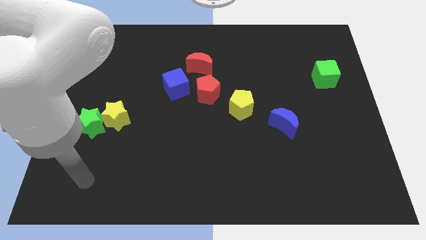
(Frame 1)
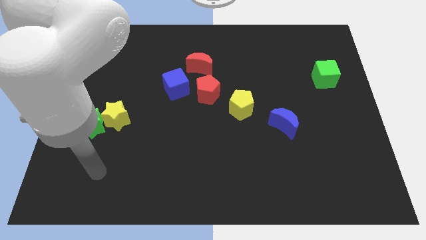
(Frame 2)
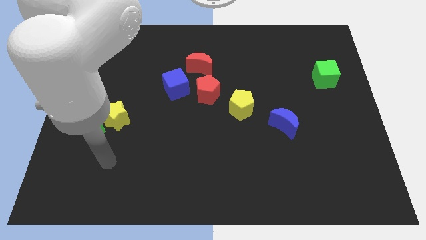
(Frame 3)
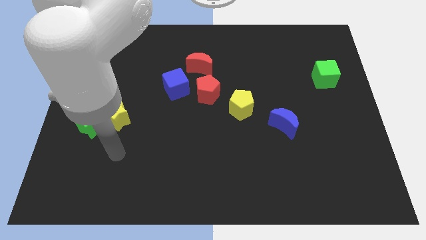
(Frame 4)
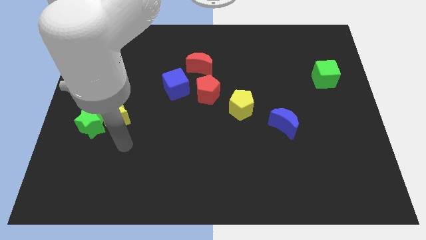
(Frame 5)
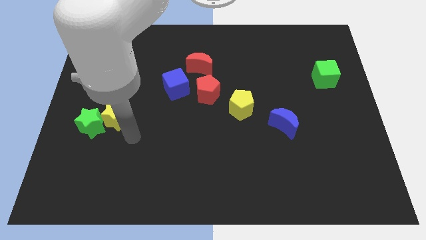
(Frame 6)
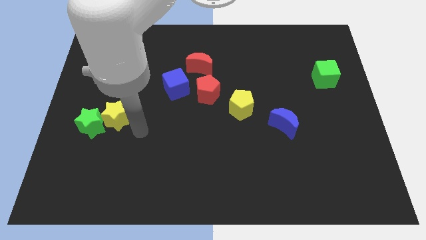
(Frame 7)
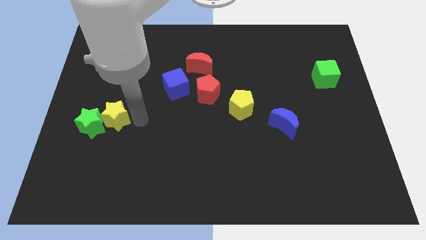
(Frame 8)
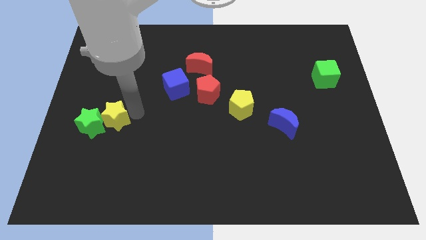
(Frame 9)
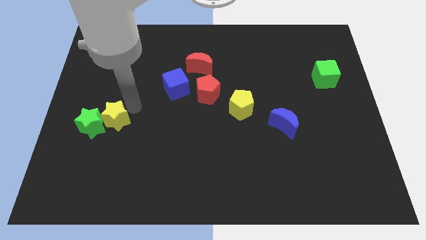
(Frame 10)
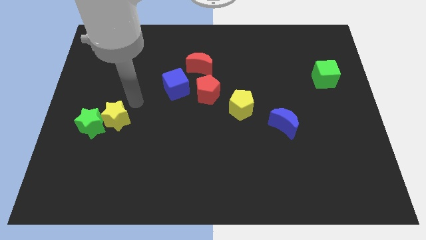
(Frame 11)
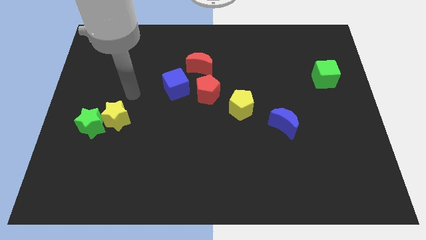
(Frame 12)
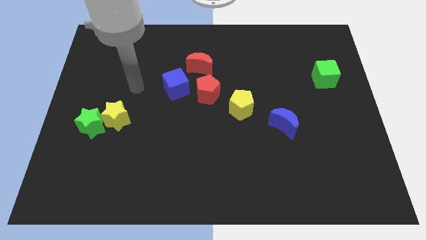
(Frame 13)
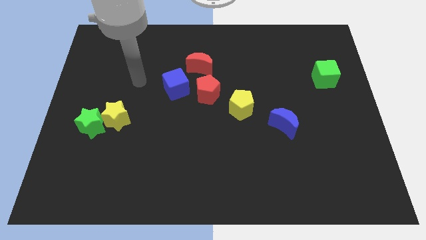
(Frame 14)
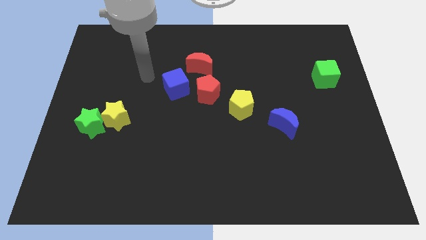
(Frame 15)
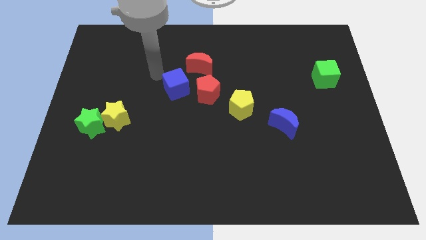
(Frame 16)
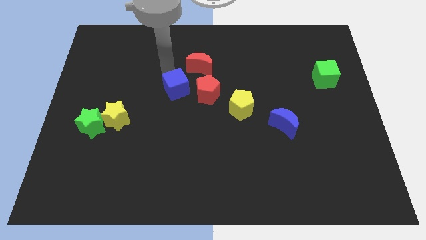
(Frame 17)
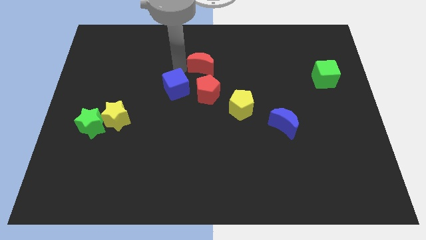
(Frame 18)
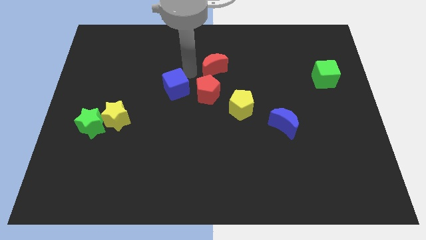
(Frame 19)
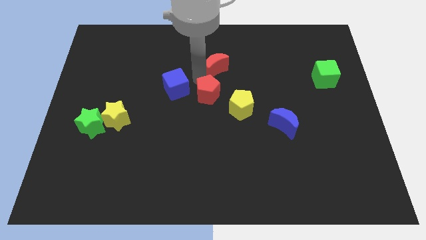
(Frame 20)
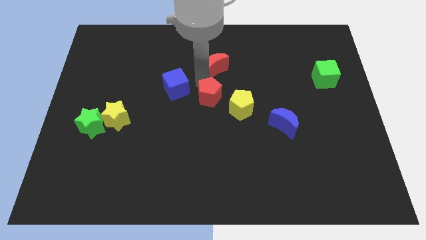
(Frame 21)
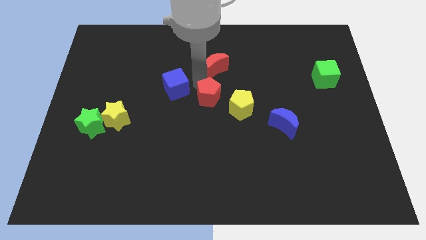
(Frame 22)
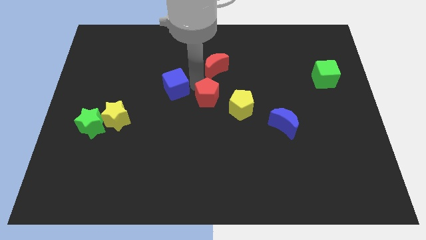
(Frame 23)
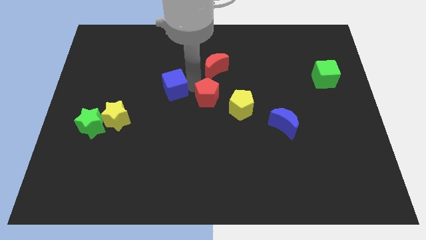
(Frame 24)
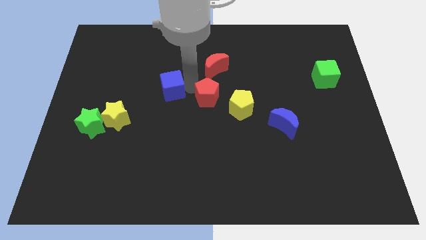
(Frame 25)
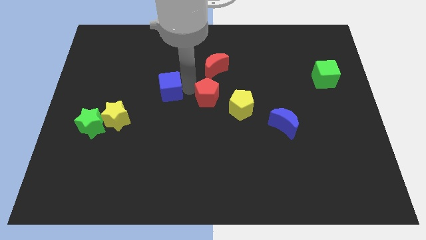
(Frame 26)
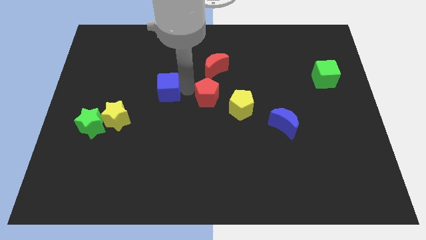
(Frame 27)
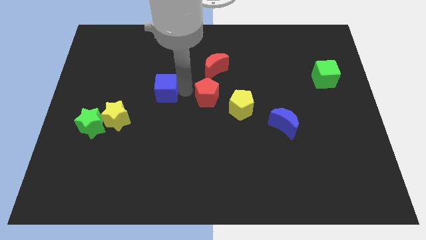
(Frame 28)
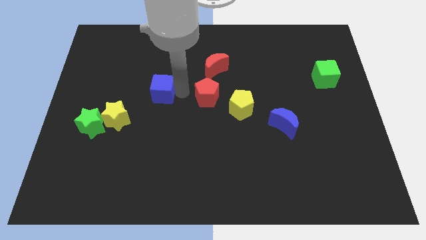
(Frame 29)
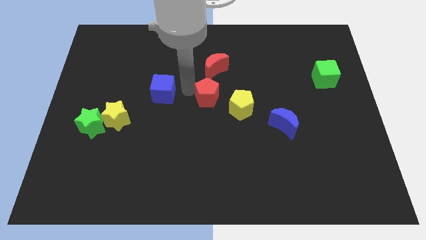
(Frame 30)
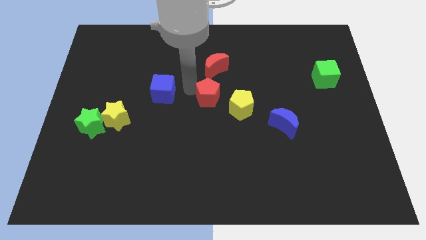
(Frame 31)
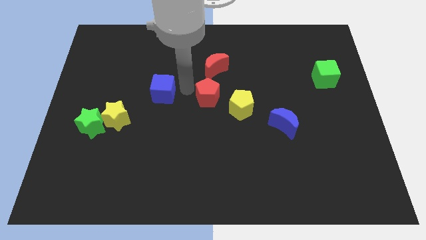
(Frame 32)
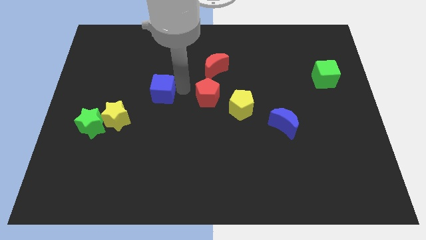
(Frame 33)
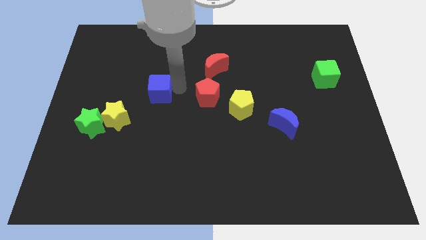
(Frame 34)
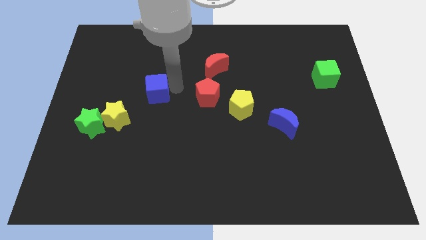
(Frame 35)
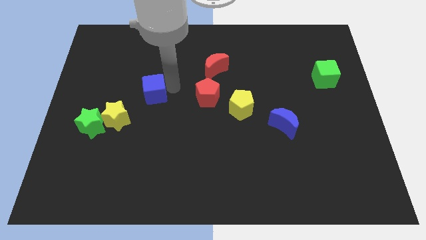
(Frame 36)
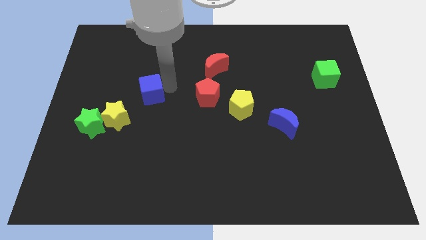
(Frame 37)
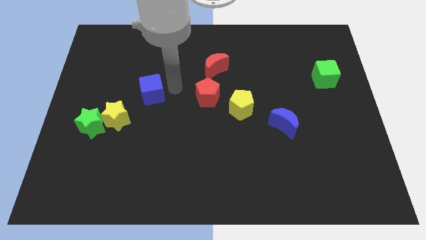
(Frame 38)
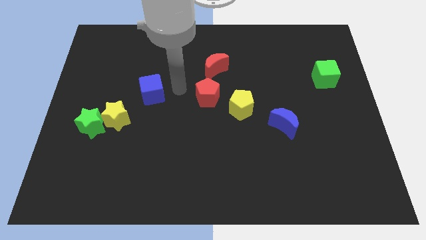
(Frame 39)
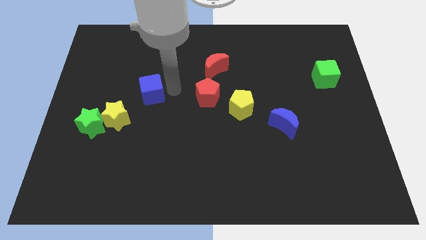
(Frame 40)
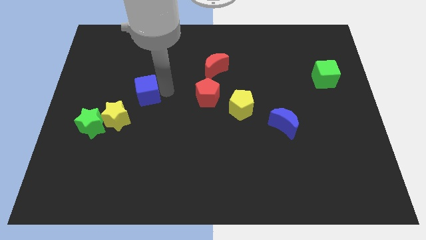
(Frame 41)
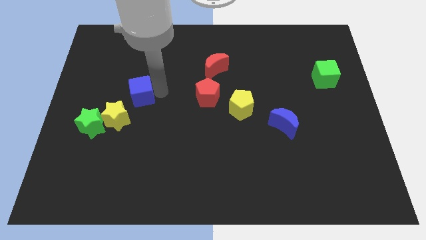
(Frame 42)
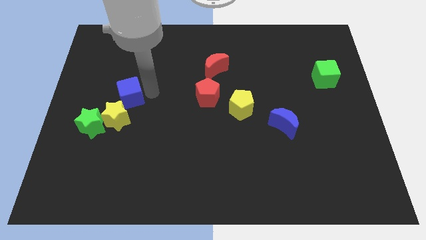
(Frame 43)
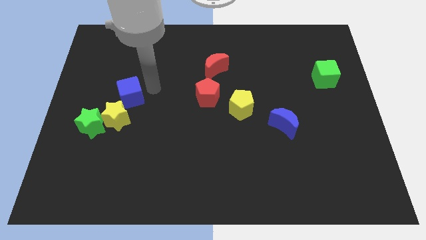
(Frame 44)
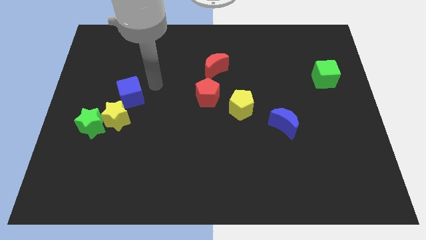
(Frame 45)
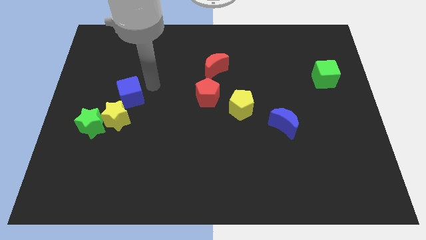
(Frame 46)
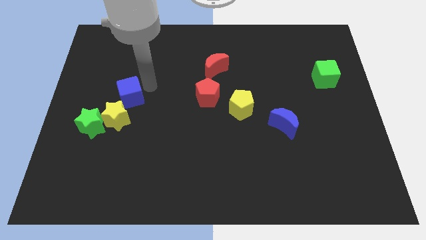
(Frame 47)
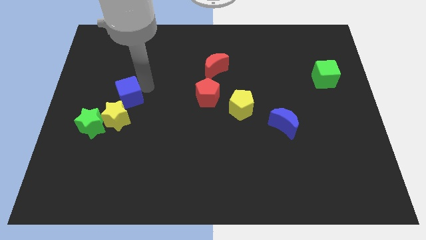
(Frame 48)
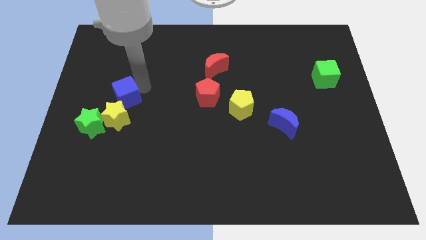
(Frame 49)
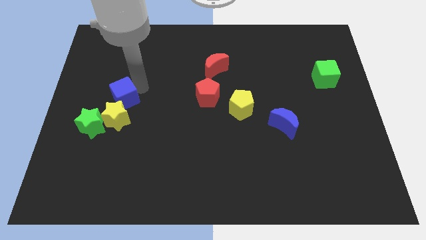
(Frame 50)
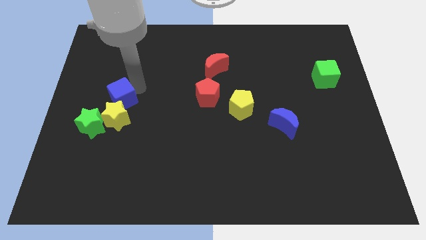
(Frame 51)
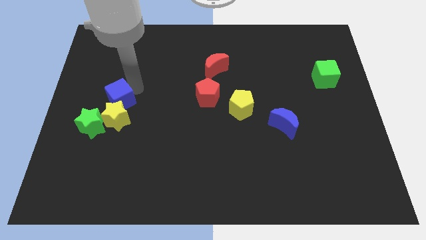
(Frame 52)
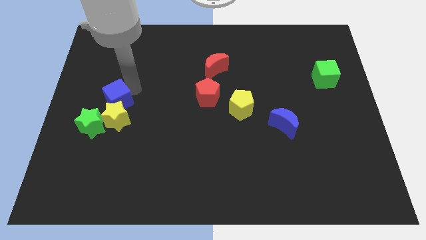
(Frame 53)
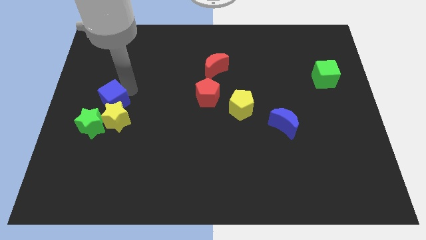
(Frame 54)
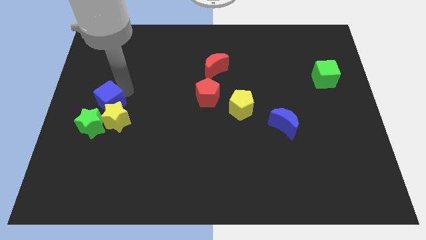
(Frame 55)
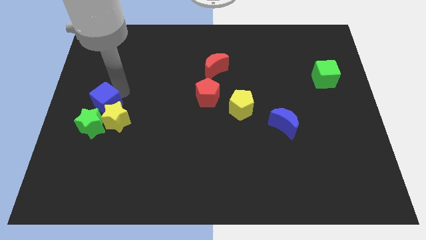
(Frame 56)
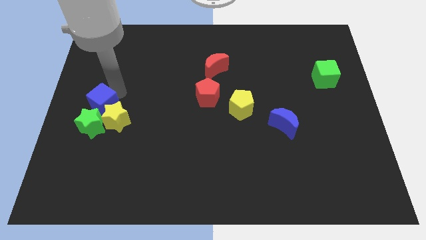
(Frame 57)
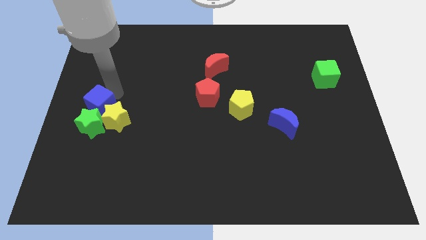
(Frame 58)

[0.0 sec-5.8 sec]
move the blue cube towards the green star

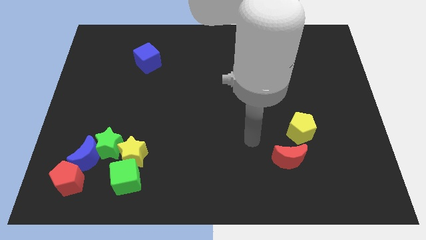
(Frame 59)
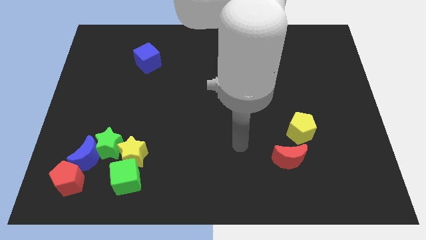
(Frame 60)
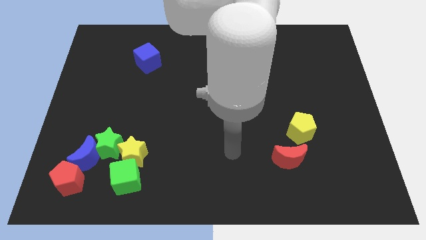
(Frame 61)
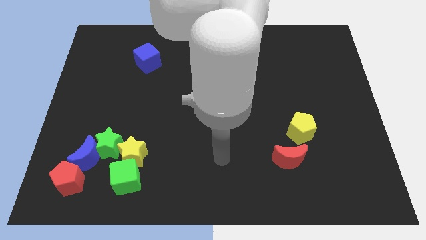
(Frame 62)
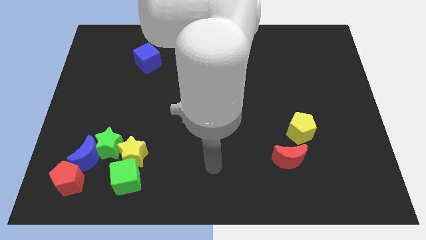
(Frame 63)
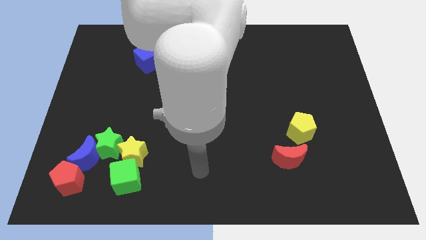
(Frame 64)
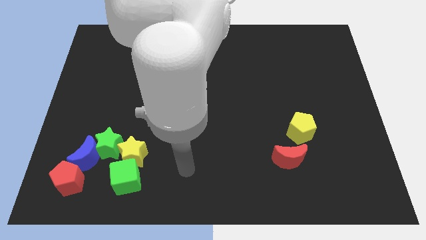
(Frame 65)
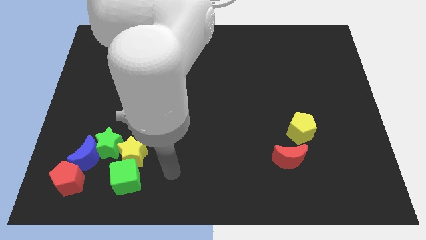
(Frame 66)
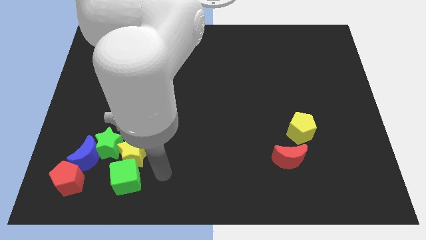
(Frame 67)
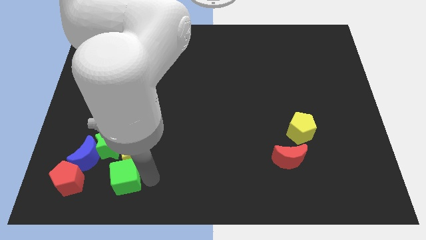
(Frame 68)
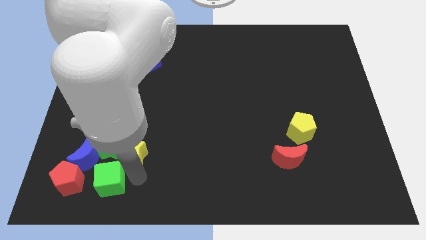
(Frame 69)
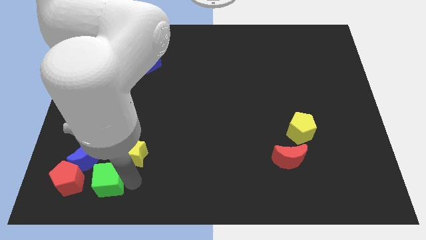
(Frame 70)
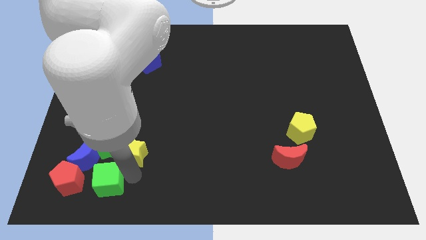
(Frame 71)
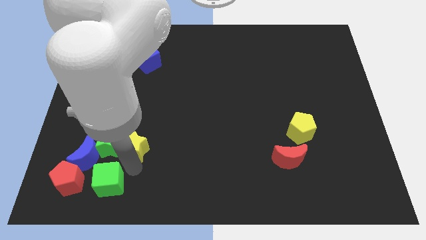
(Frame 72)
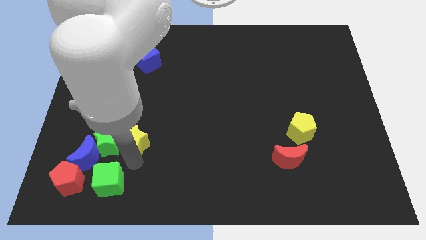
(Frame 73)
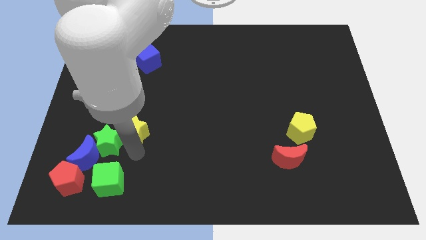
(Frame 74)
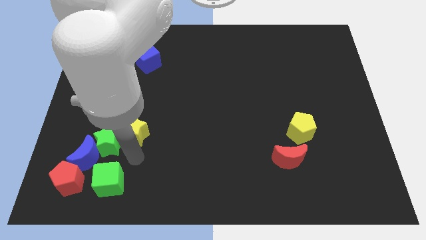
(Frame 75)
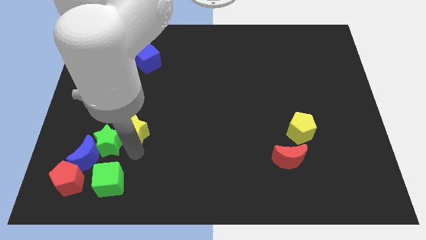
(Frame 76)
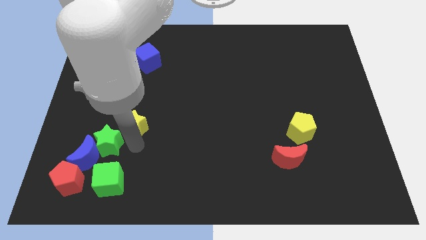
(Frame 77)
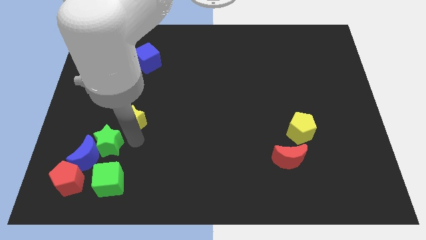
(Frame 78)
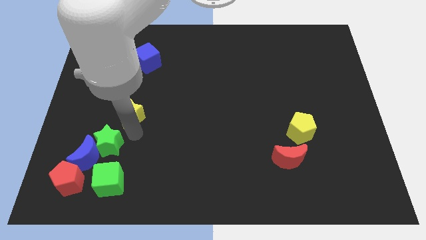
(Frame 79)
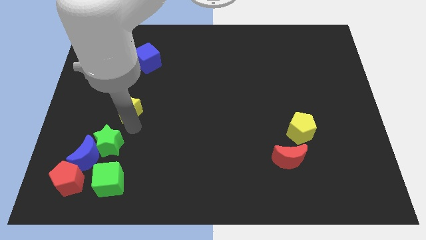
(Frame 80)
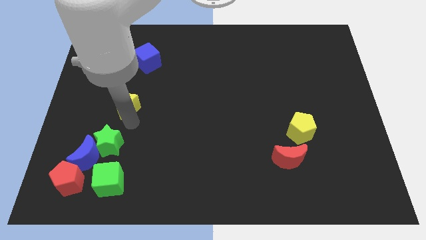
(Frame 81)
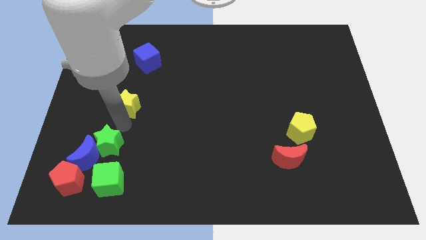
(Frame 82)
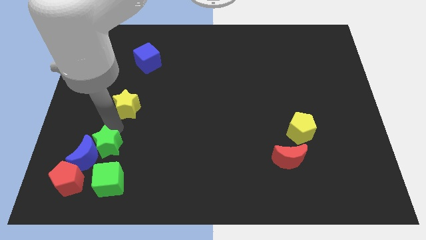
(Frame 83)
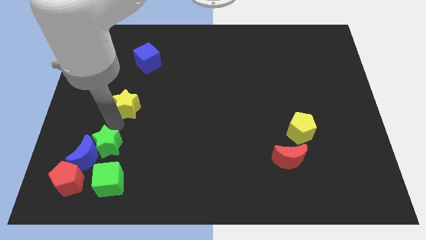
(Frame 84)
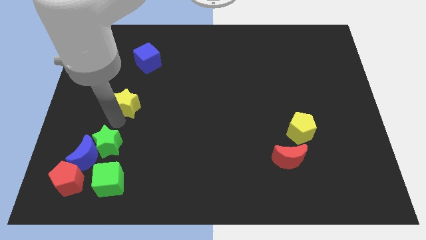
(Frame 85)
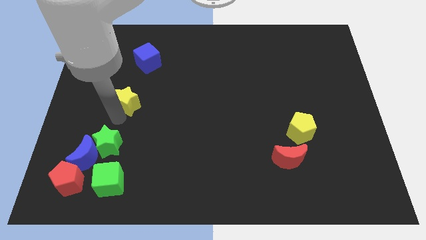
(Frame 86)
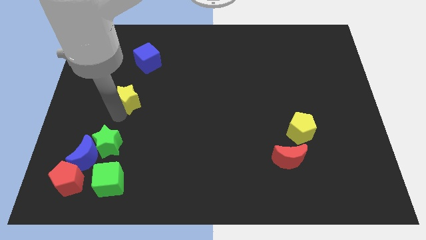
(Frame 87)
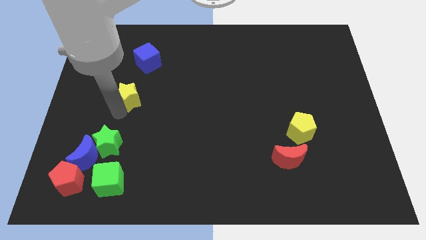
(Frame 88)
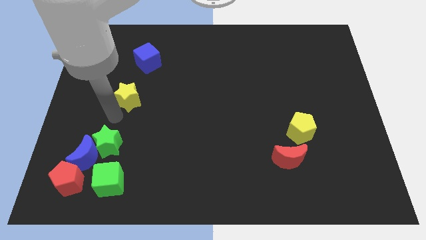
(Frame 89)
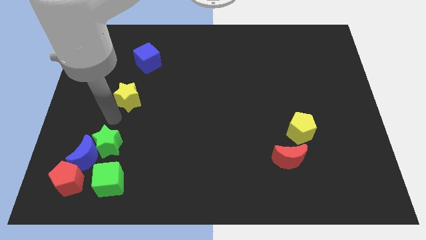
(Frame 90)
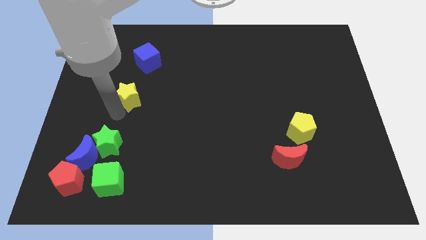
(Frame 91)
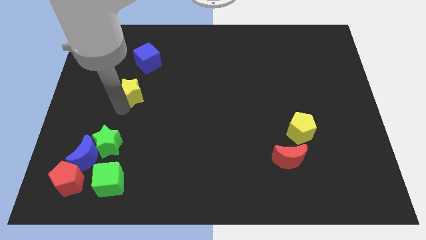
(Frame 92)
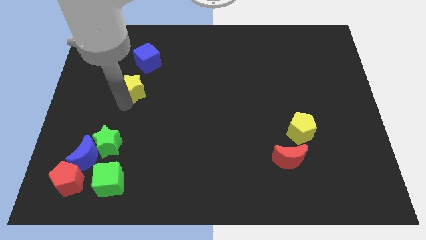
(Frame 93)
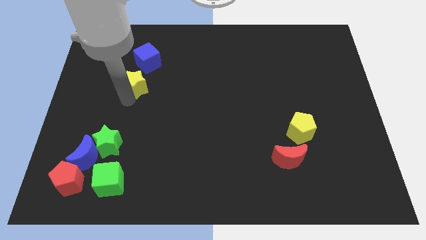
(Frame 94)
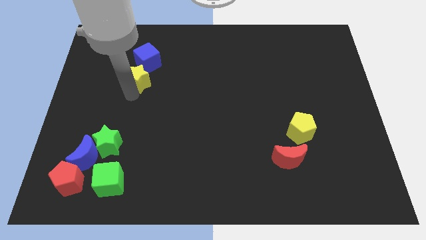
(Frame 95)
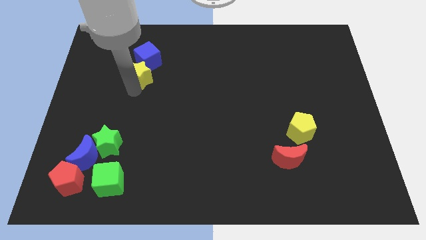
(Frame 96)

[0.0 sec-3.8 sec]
push the yellow star next to the blue cube
